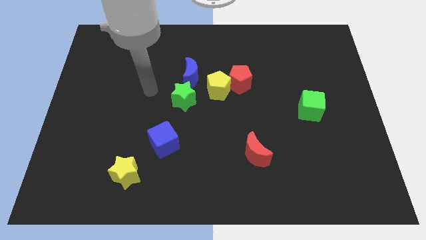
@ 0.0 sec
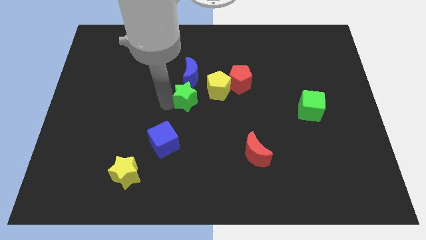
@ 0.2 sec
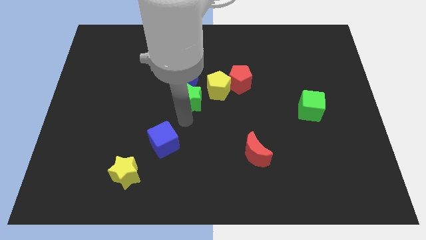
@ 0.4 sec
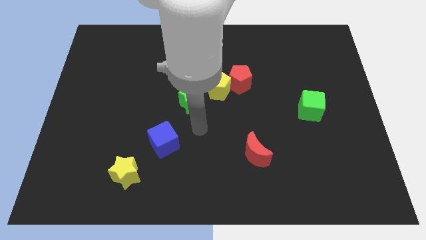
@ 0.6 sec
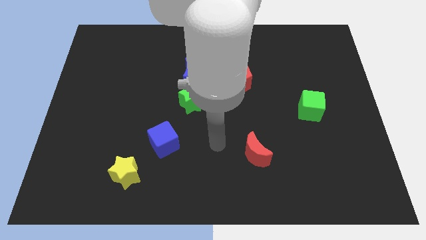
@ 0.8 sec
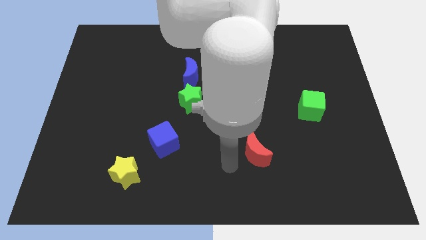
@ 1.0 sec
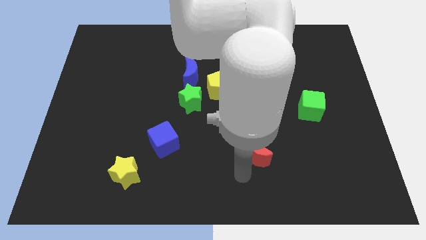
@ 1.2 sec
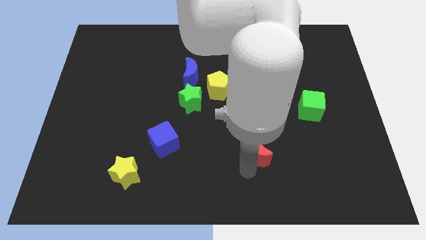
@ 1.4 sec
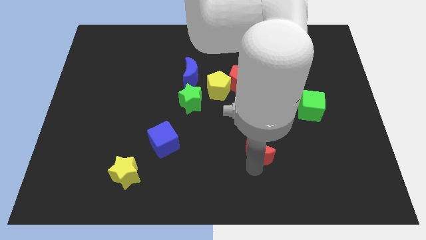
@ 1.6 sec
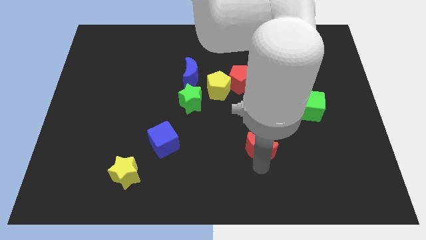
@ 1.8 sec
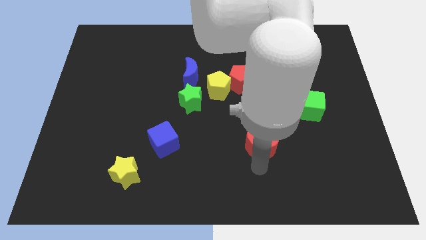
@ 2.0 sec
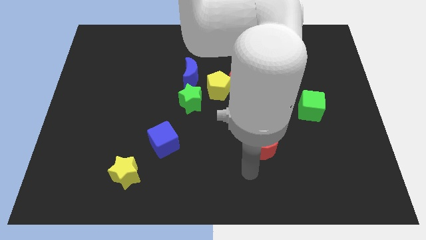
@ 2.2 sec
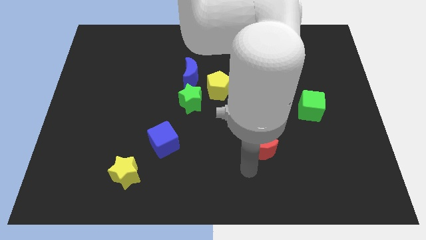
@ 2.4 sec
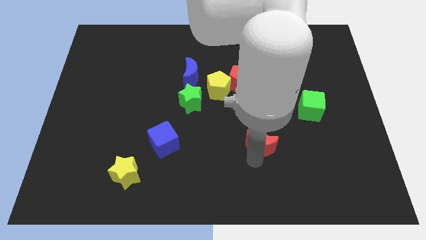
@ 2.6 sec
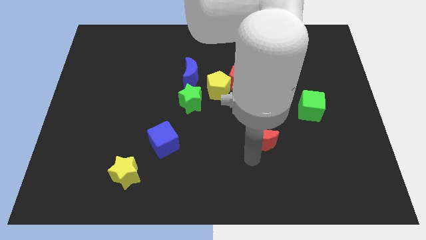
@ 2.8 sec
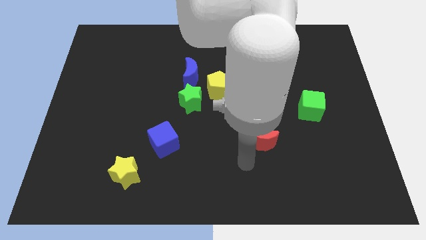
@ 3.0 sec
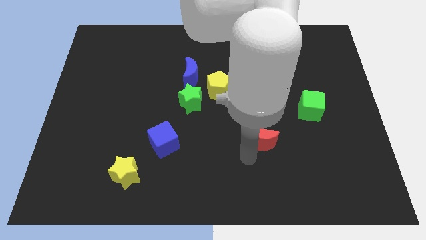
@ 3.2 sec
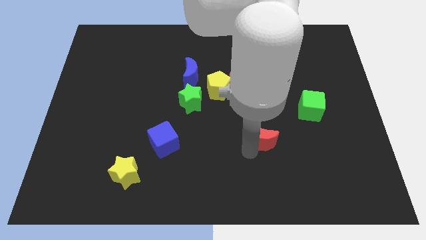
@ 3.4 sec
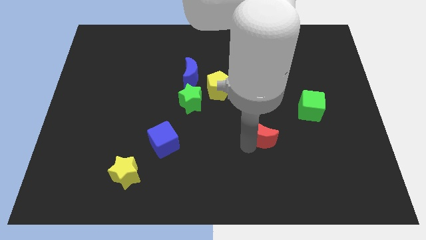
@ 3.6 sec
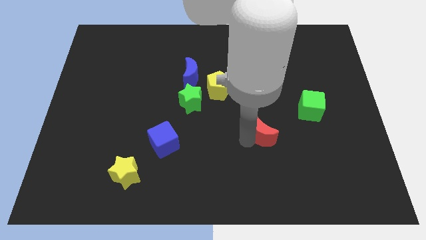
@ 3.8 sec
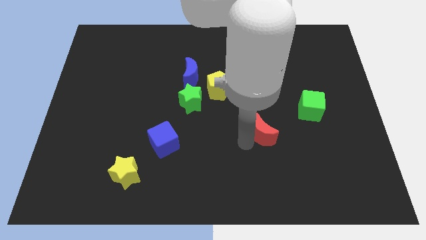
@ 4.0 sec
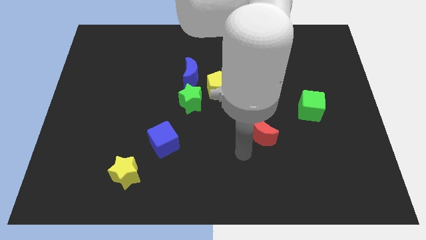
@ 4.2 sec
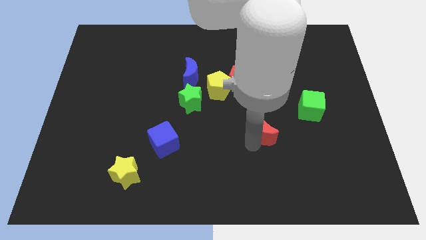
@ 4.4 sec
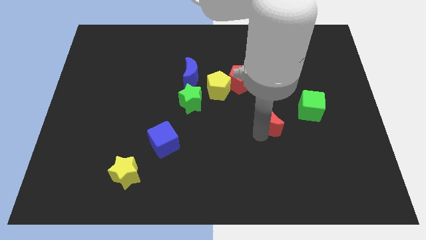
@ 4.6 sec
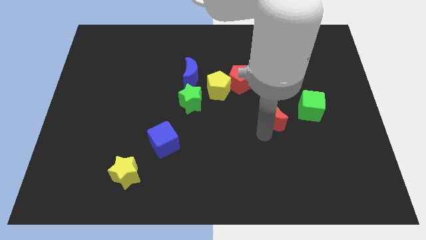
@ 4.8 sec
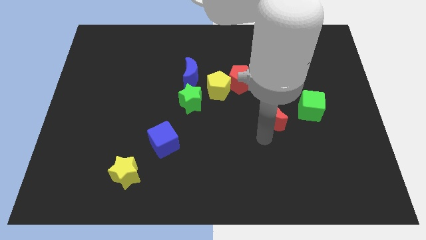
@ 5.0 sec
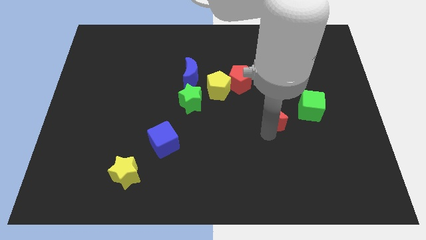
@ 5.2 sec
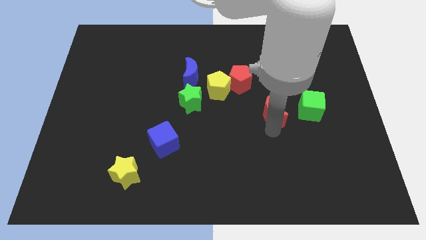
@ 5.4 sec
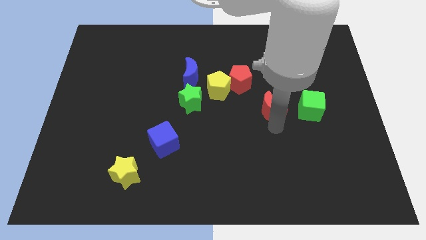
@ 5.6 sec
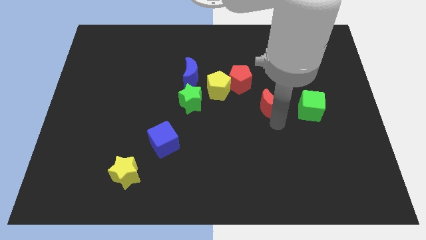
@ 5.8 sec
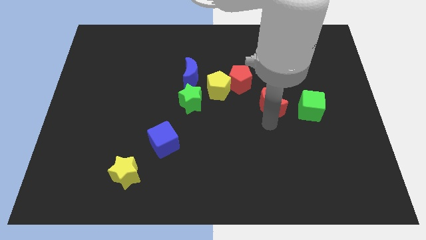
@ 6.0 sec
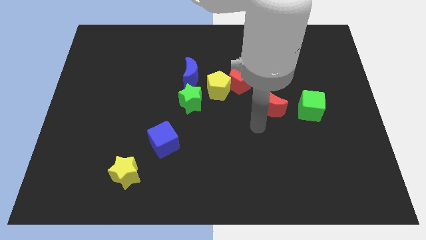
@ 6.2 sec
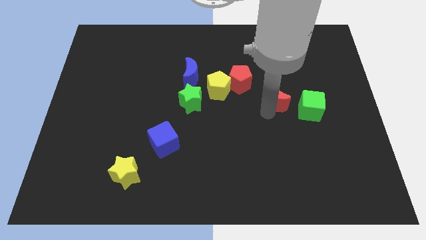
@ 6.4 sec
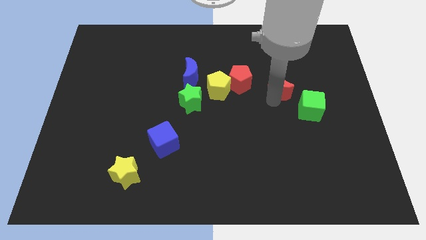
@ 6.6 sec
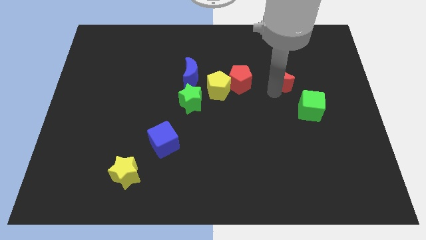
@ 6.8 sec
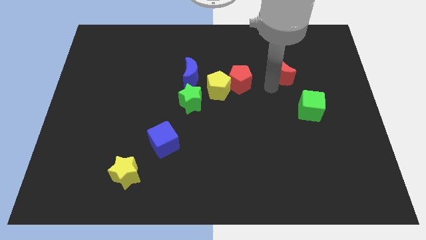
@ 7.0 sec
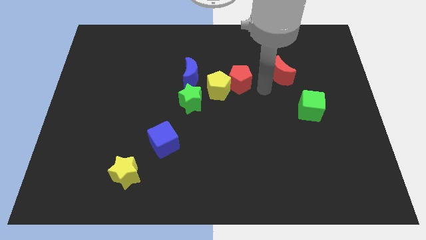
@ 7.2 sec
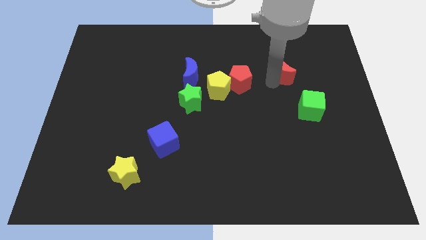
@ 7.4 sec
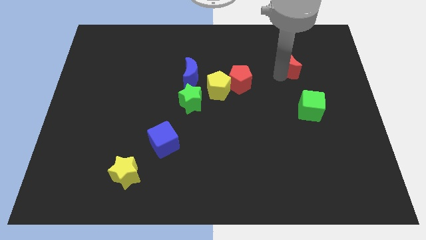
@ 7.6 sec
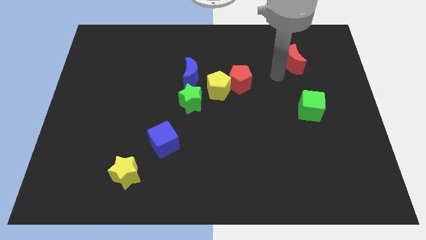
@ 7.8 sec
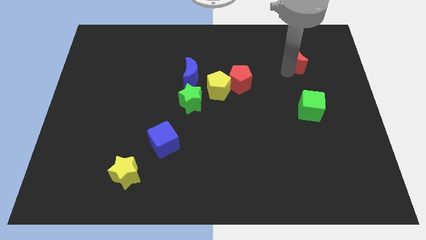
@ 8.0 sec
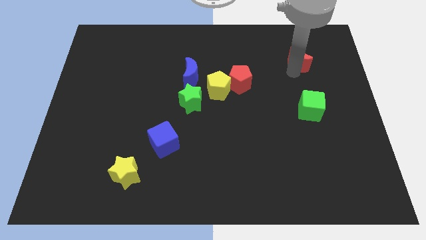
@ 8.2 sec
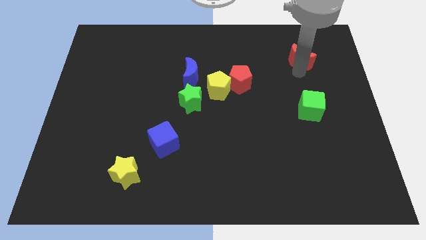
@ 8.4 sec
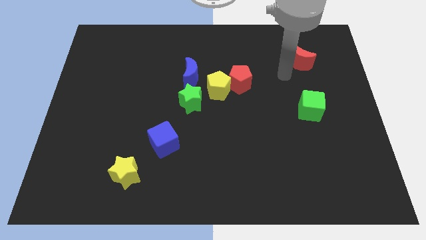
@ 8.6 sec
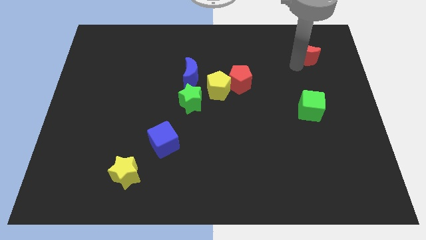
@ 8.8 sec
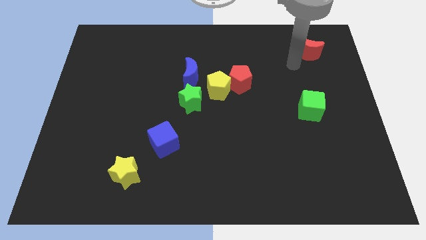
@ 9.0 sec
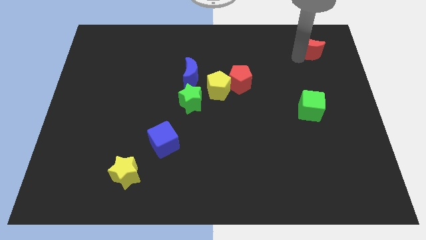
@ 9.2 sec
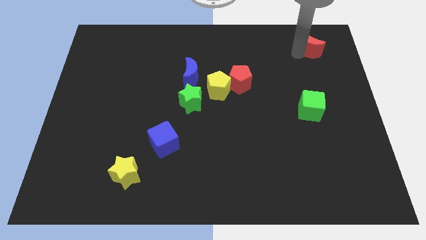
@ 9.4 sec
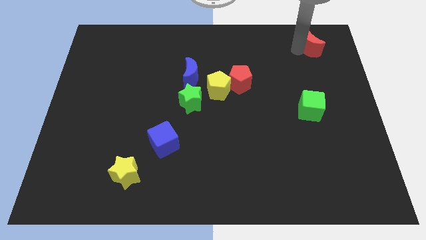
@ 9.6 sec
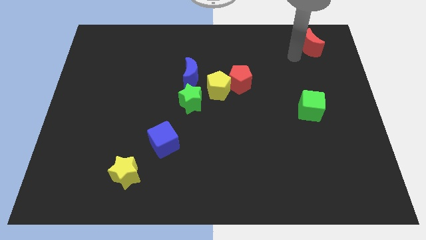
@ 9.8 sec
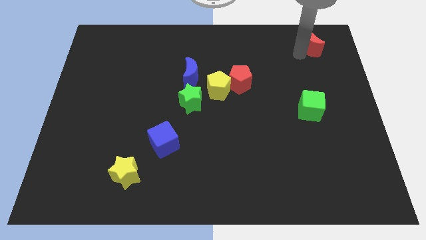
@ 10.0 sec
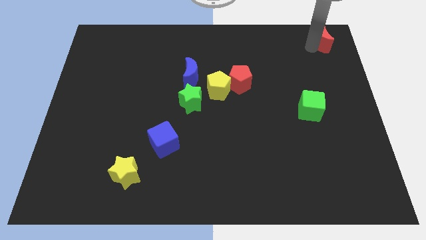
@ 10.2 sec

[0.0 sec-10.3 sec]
slide the red moon to the top right
